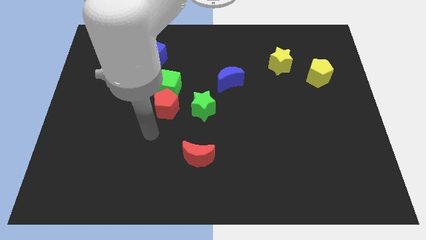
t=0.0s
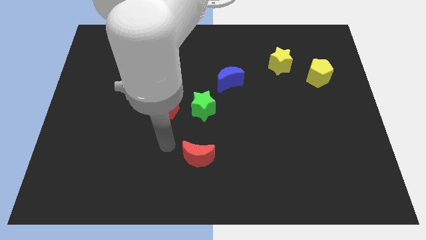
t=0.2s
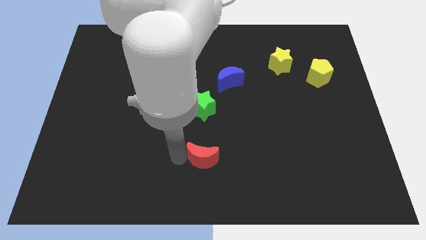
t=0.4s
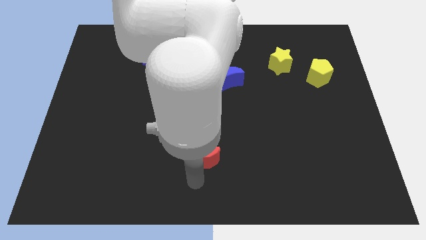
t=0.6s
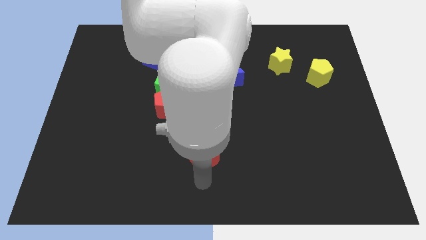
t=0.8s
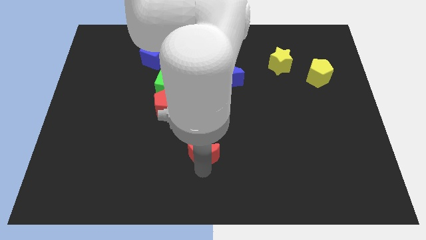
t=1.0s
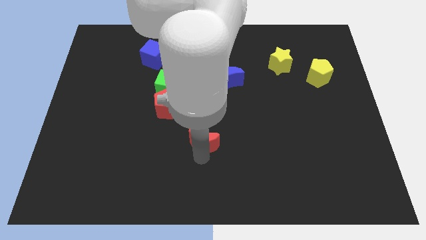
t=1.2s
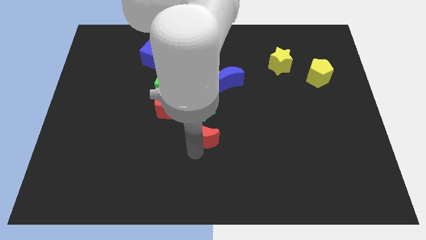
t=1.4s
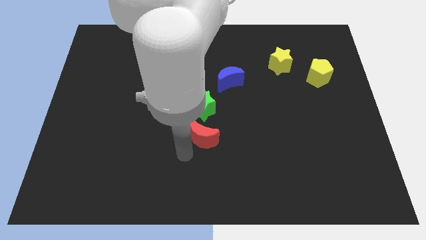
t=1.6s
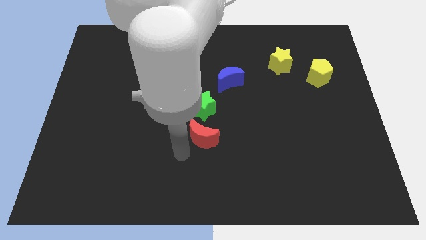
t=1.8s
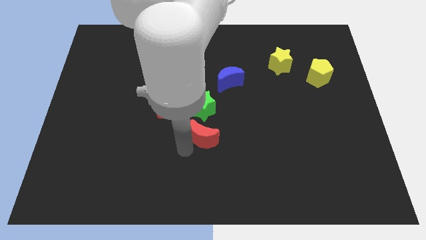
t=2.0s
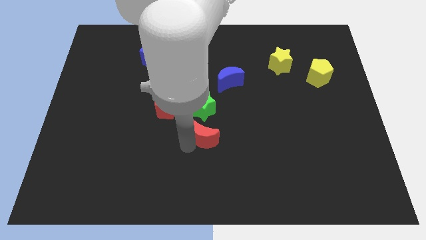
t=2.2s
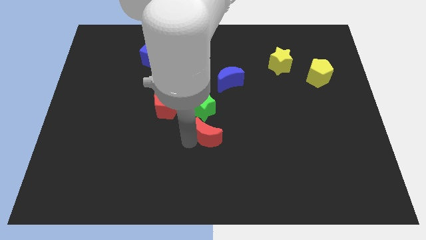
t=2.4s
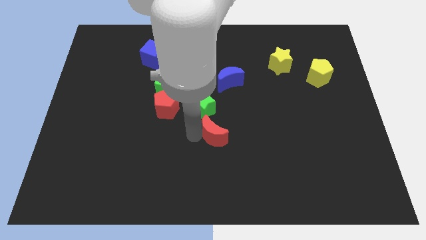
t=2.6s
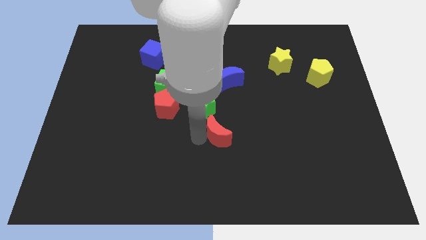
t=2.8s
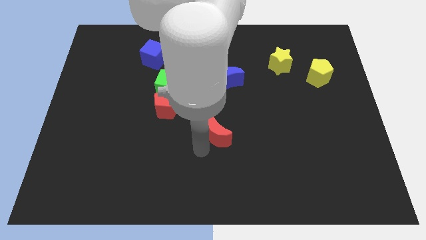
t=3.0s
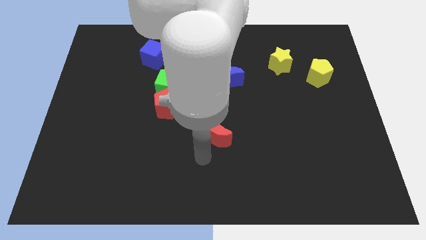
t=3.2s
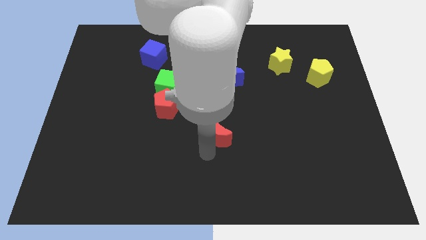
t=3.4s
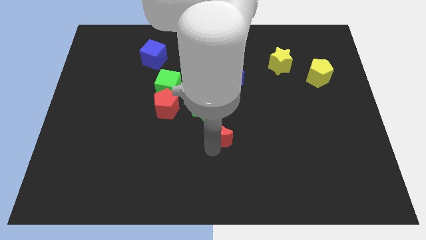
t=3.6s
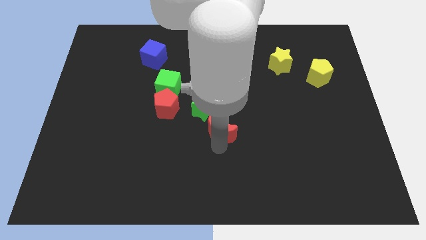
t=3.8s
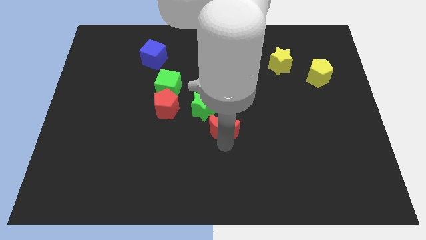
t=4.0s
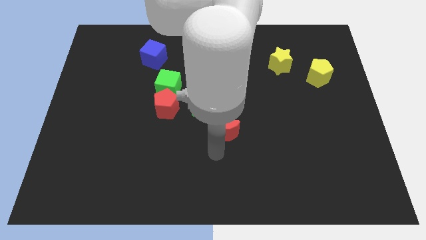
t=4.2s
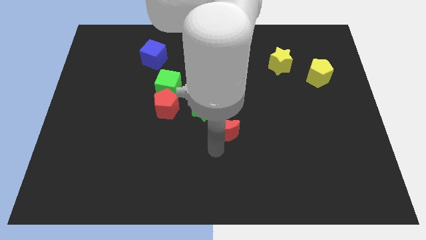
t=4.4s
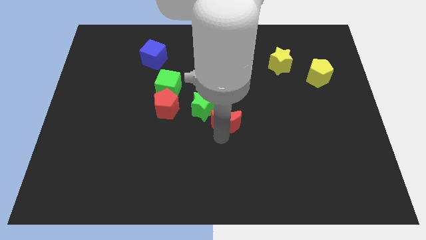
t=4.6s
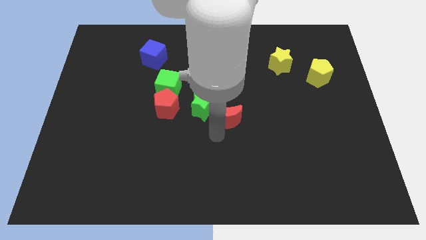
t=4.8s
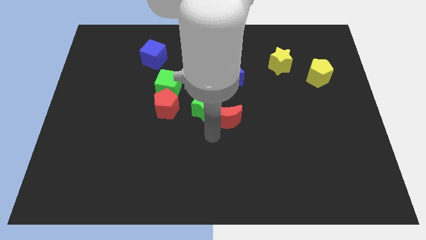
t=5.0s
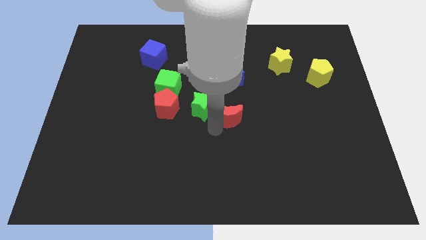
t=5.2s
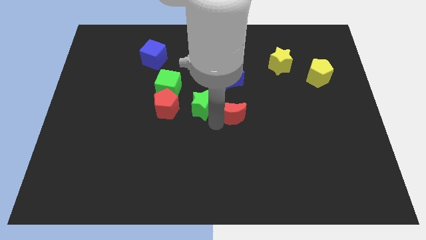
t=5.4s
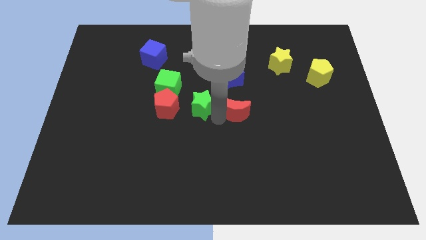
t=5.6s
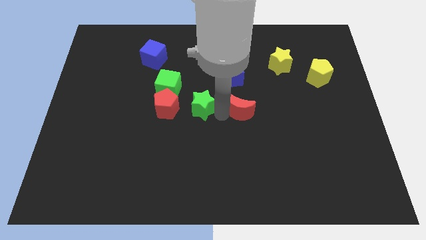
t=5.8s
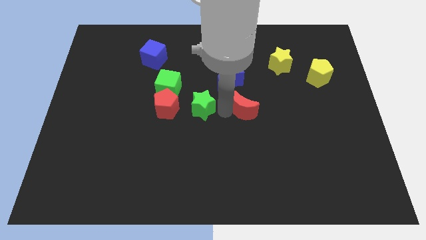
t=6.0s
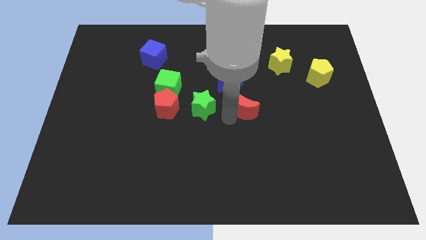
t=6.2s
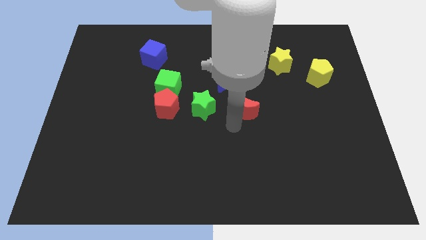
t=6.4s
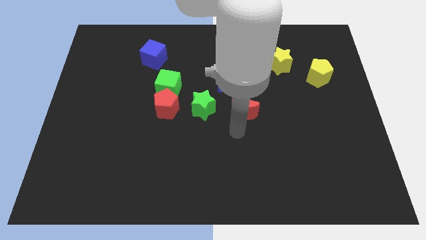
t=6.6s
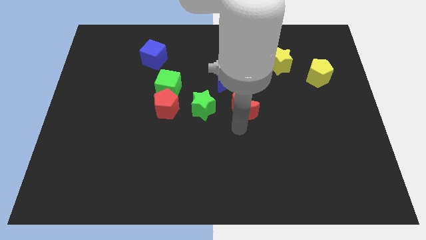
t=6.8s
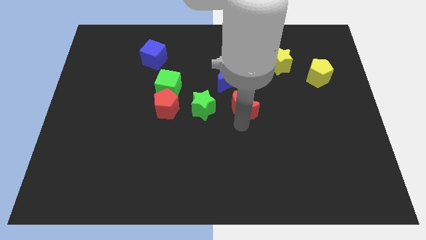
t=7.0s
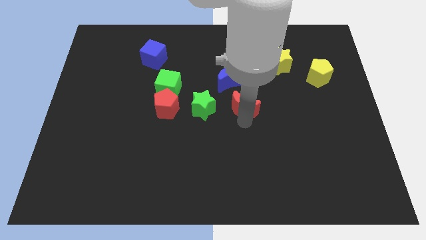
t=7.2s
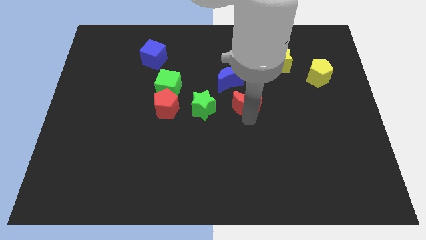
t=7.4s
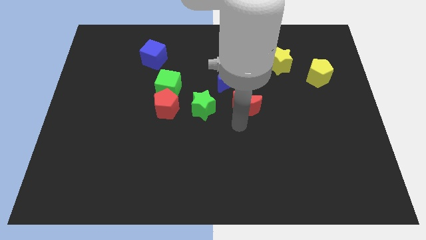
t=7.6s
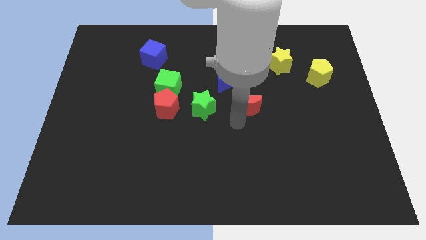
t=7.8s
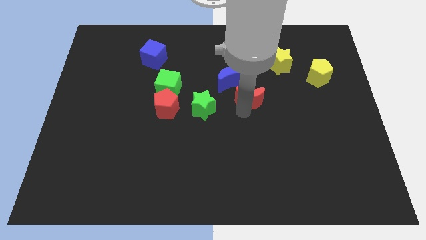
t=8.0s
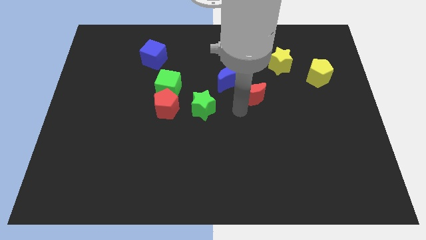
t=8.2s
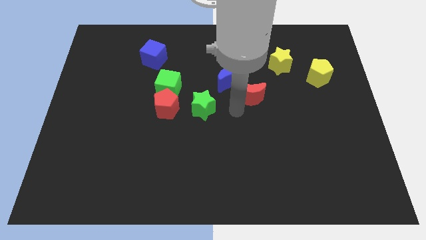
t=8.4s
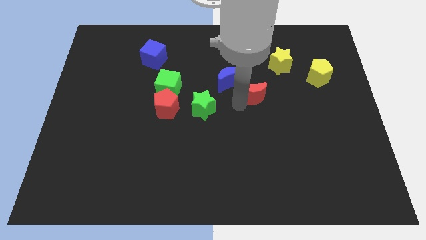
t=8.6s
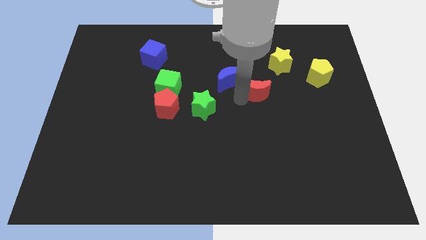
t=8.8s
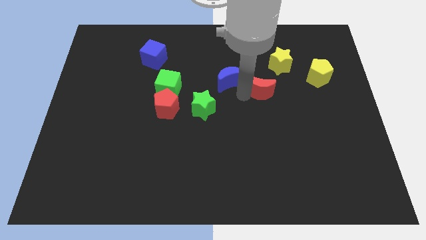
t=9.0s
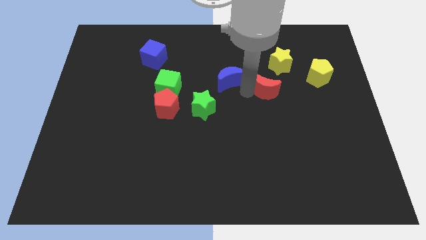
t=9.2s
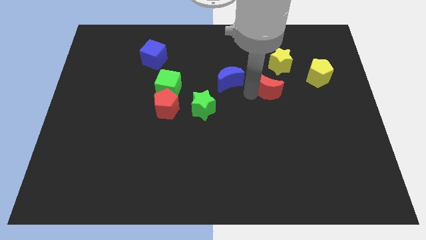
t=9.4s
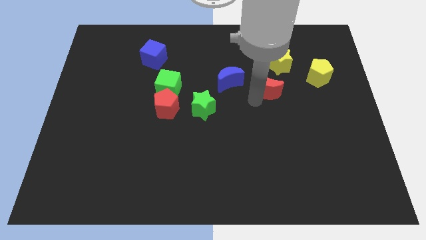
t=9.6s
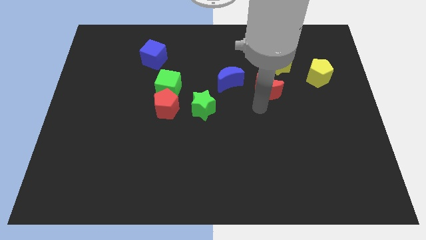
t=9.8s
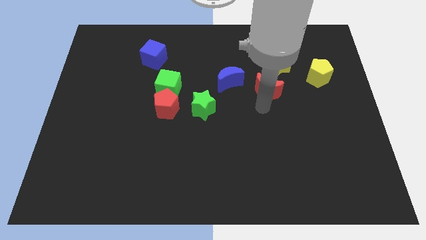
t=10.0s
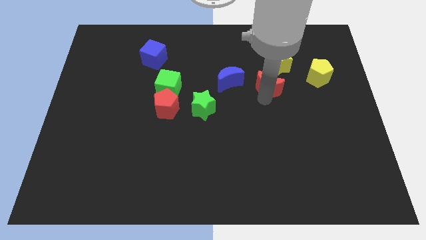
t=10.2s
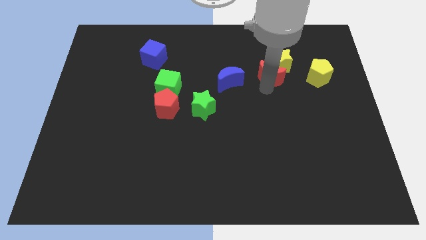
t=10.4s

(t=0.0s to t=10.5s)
push the red moon close to the yellow star

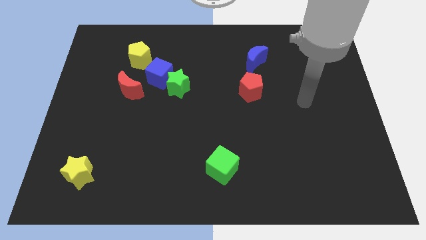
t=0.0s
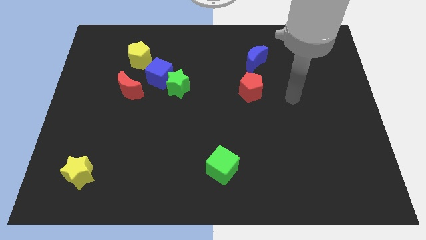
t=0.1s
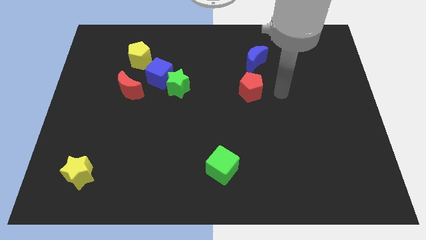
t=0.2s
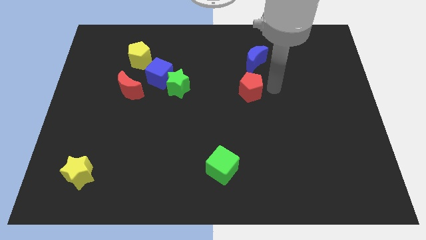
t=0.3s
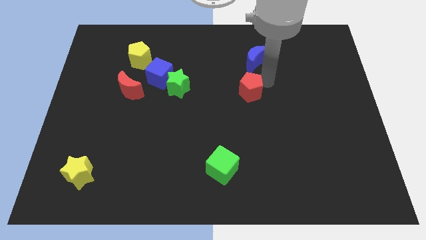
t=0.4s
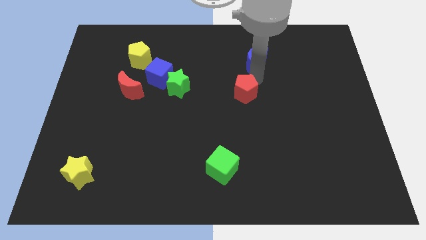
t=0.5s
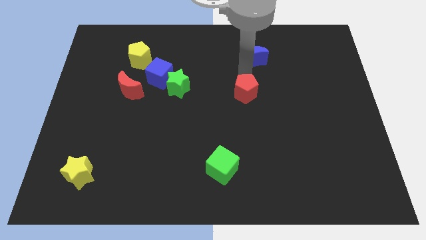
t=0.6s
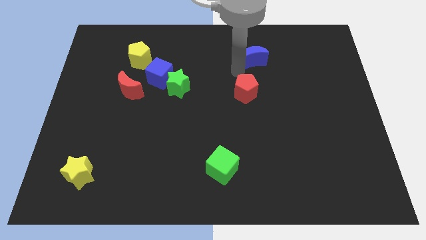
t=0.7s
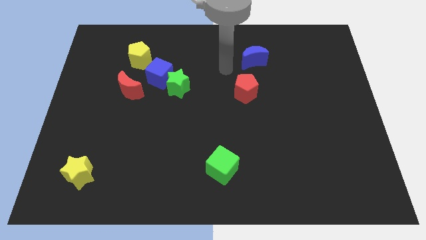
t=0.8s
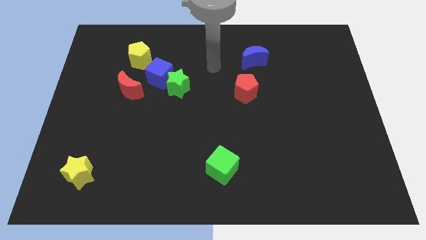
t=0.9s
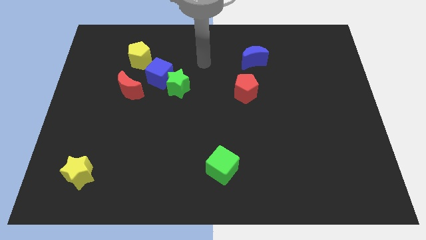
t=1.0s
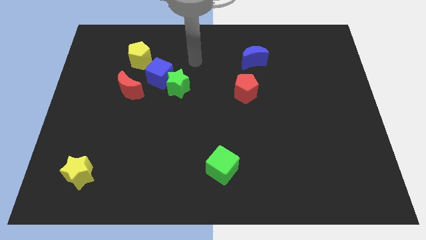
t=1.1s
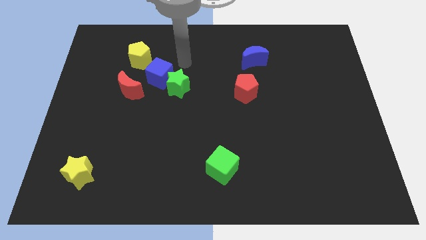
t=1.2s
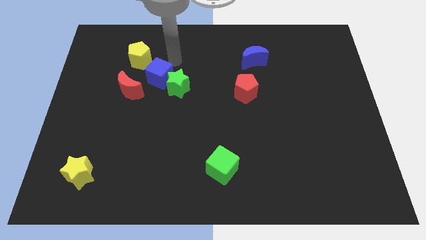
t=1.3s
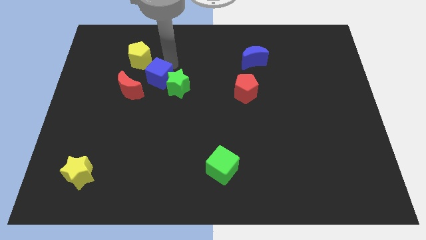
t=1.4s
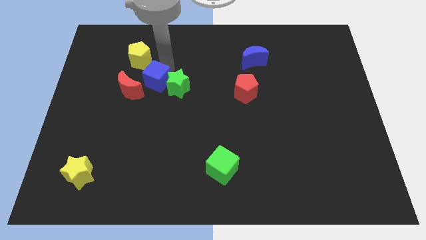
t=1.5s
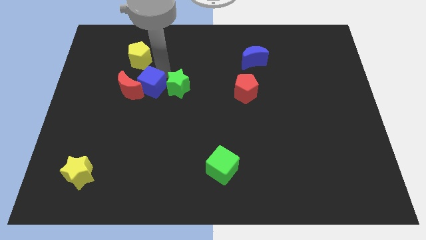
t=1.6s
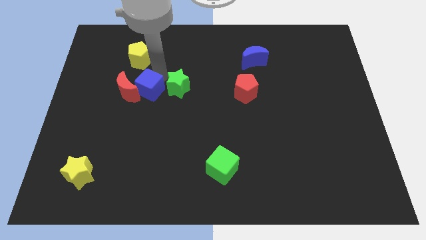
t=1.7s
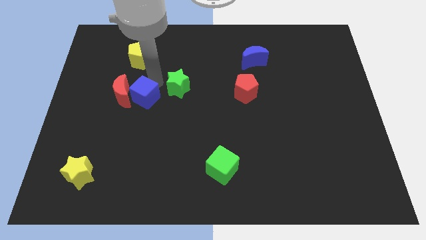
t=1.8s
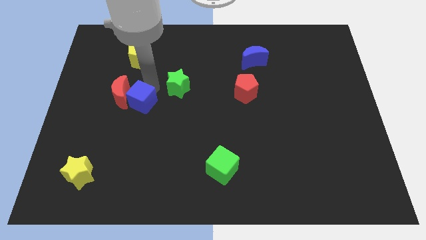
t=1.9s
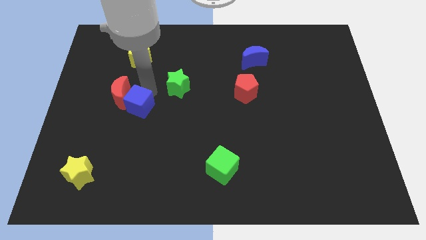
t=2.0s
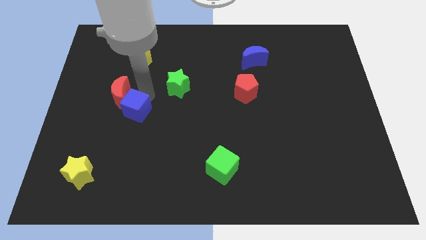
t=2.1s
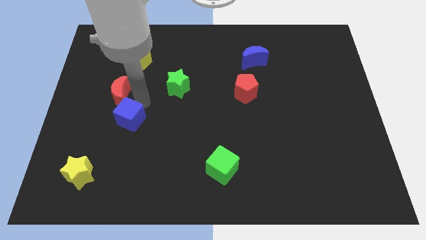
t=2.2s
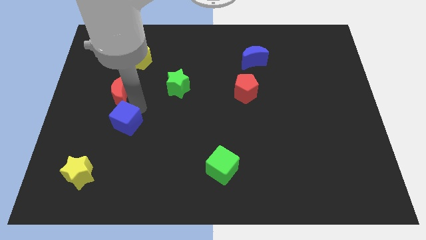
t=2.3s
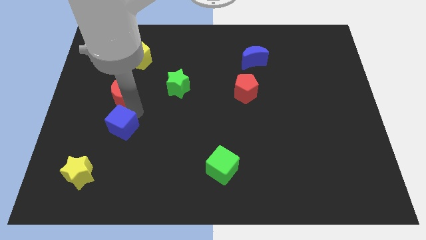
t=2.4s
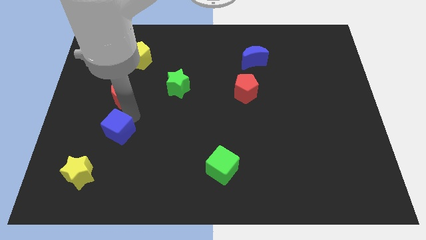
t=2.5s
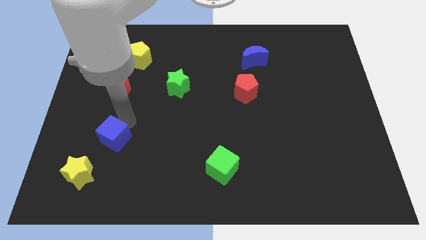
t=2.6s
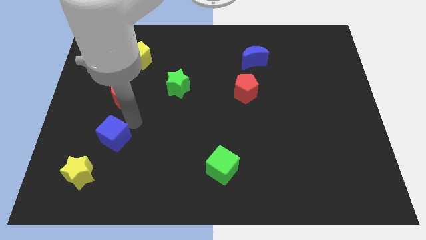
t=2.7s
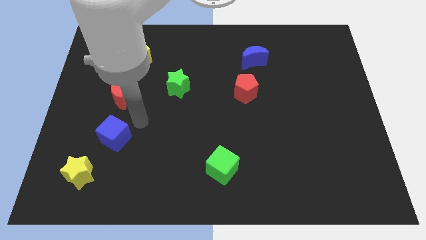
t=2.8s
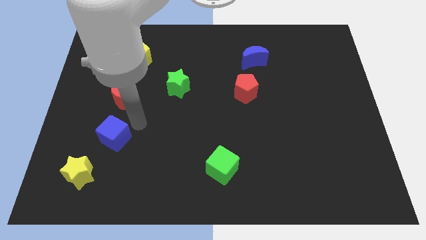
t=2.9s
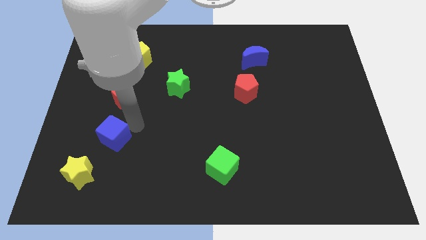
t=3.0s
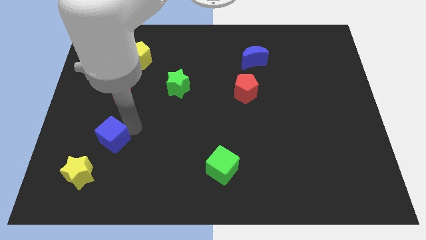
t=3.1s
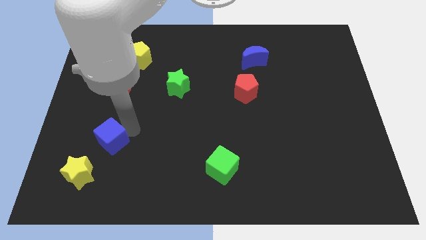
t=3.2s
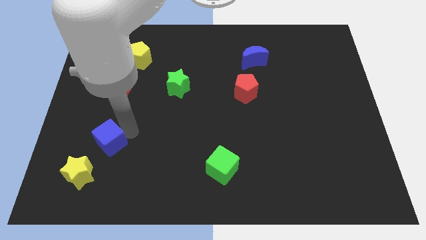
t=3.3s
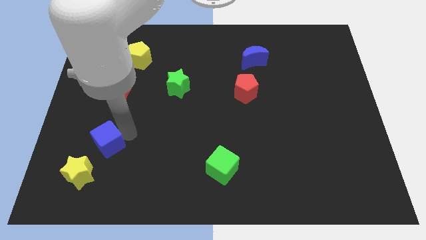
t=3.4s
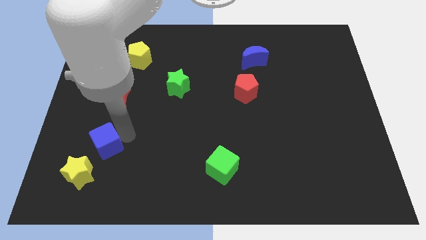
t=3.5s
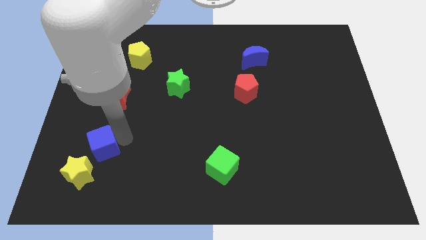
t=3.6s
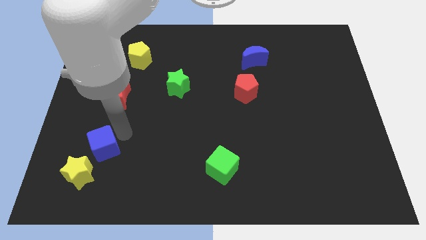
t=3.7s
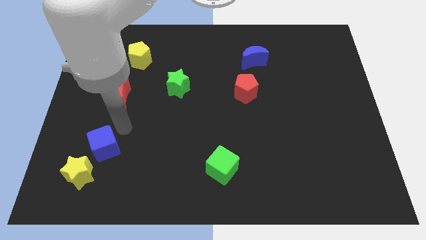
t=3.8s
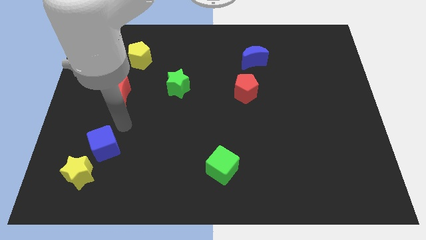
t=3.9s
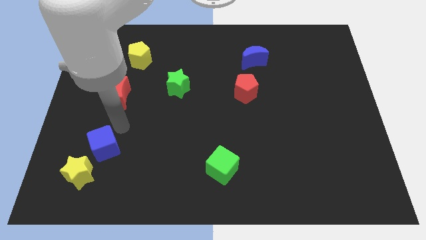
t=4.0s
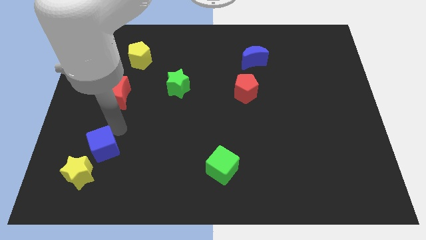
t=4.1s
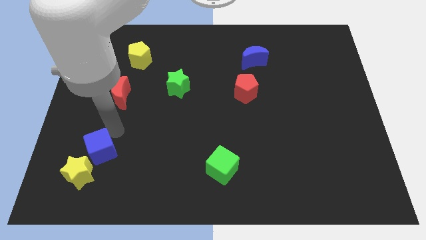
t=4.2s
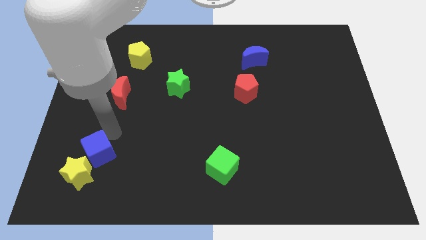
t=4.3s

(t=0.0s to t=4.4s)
put the blue cube to the yellow star
